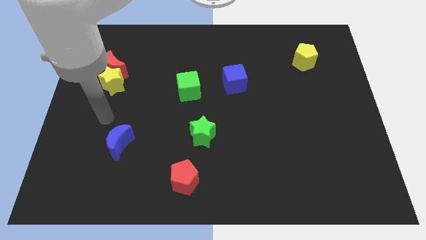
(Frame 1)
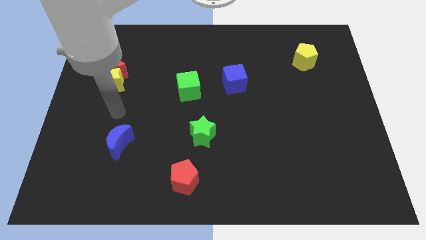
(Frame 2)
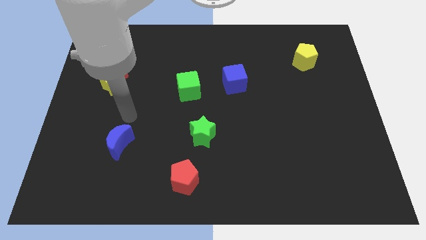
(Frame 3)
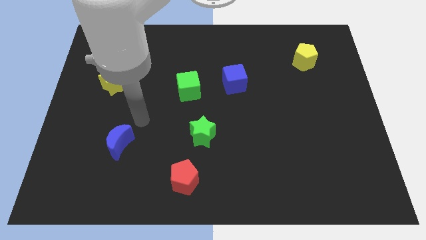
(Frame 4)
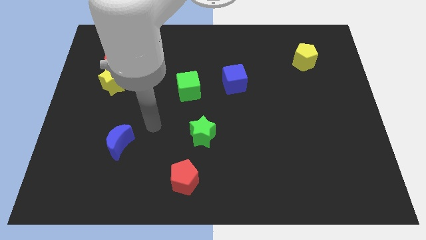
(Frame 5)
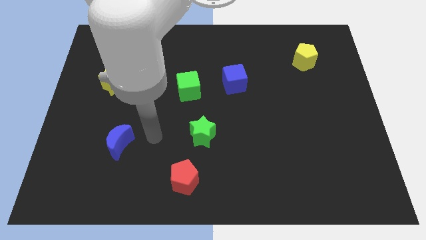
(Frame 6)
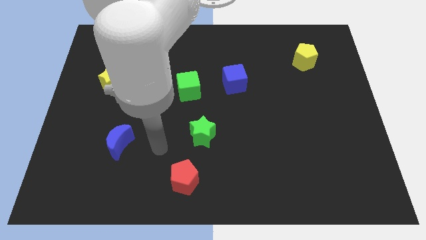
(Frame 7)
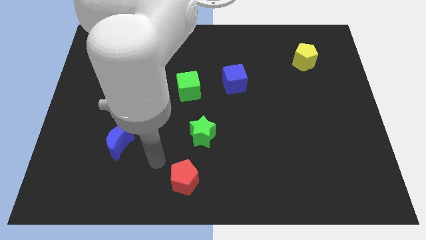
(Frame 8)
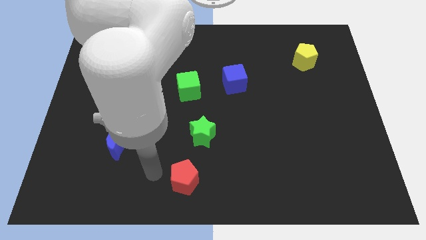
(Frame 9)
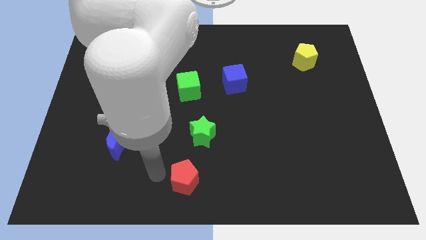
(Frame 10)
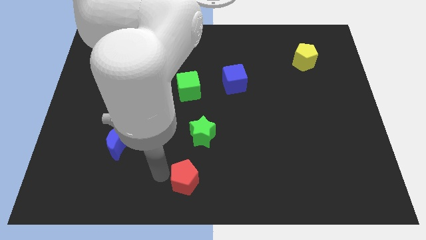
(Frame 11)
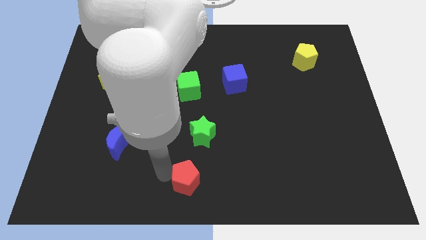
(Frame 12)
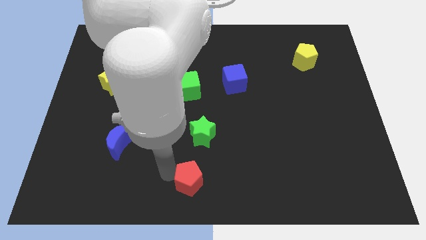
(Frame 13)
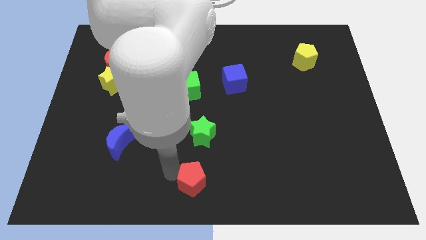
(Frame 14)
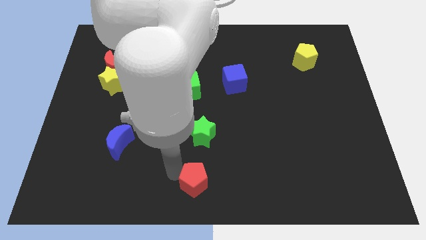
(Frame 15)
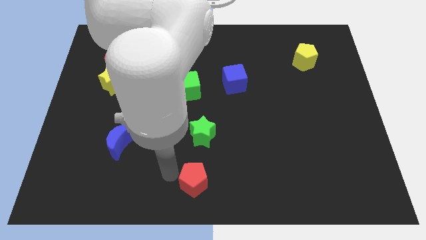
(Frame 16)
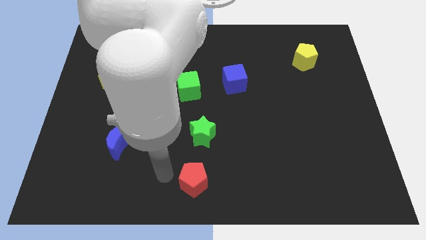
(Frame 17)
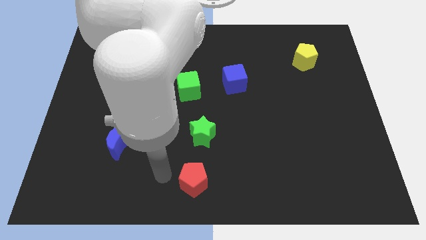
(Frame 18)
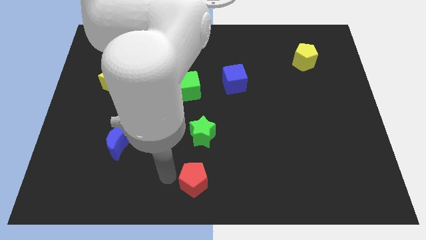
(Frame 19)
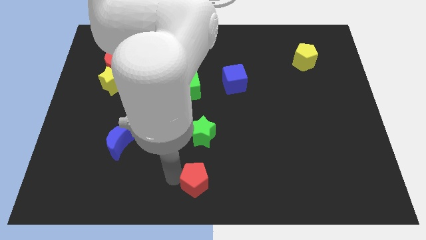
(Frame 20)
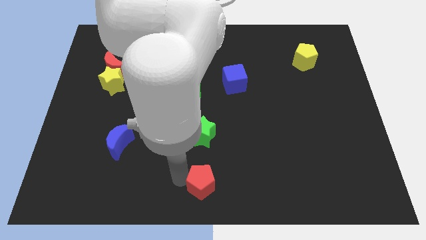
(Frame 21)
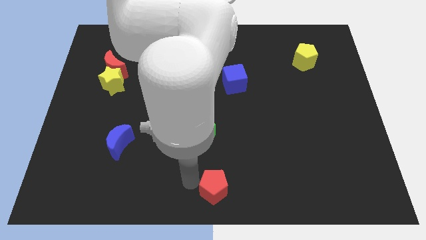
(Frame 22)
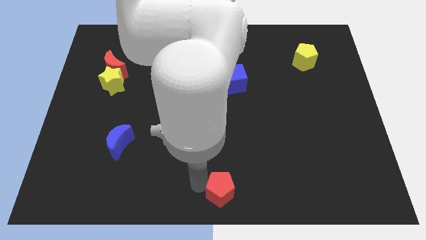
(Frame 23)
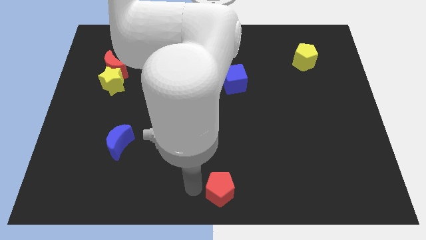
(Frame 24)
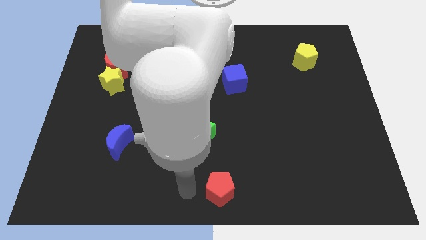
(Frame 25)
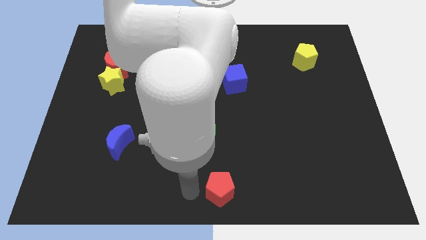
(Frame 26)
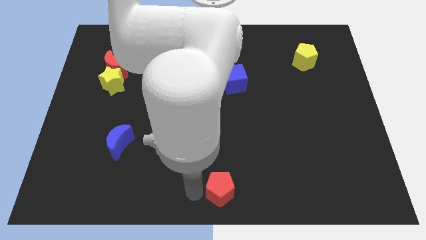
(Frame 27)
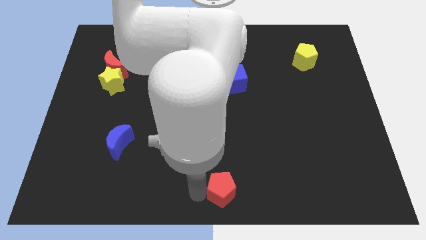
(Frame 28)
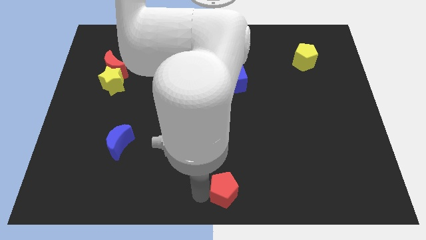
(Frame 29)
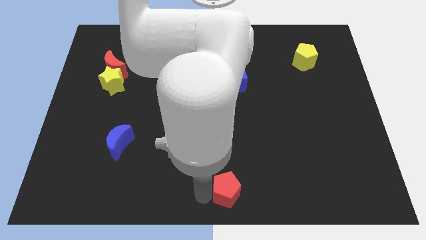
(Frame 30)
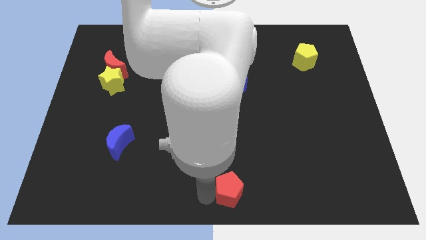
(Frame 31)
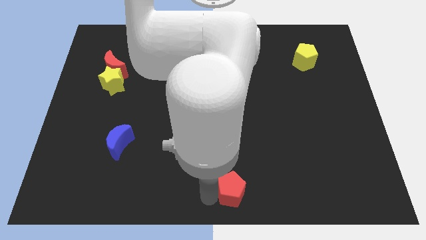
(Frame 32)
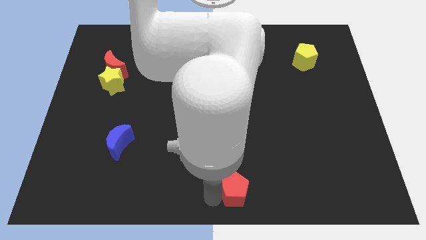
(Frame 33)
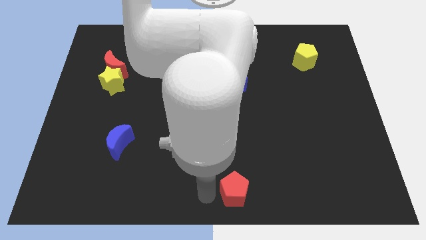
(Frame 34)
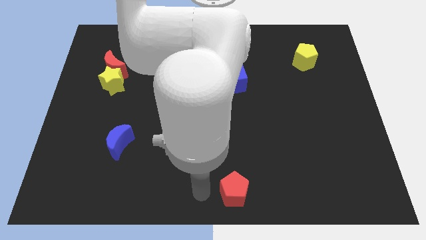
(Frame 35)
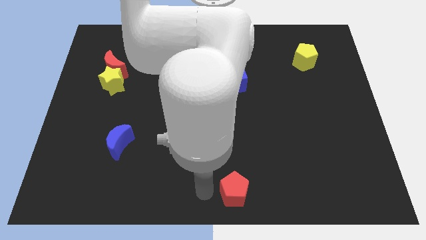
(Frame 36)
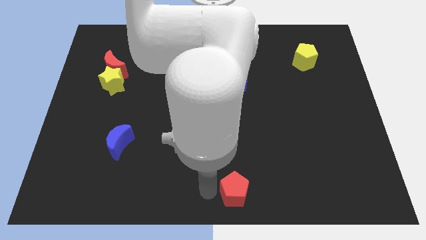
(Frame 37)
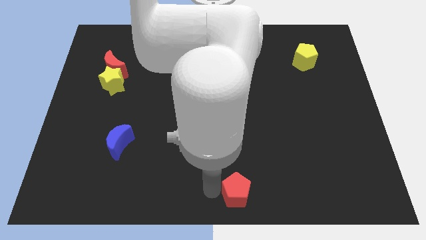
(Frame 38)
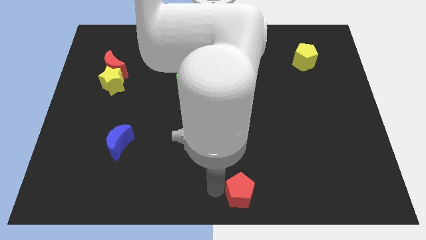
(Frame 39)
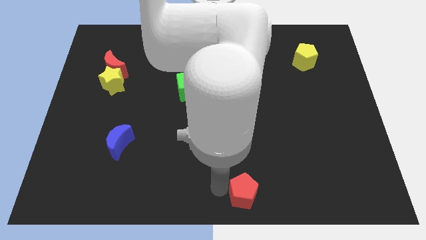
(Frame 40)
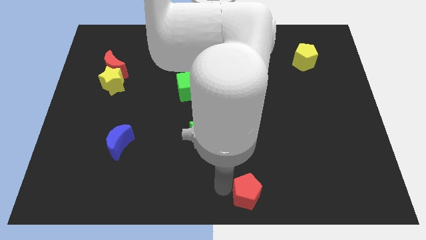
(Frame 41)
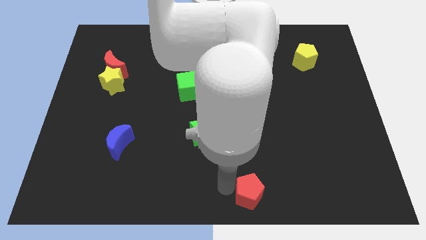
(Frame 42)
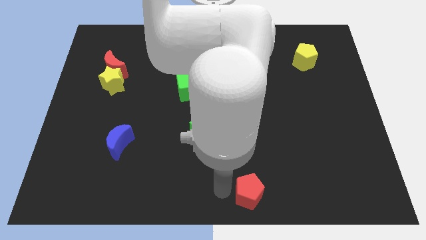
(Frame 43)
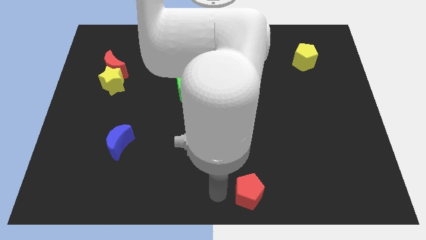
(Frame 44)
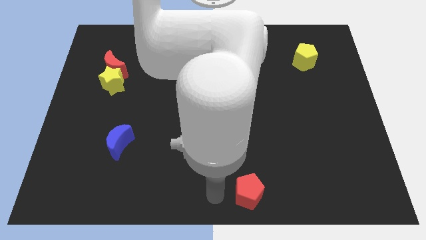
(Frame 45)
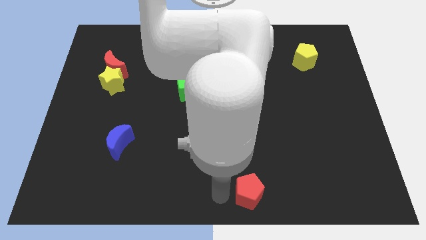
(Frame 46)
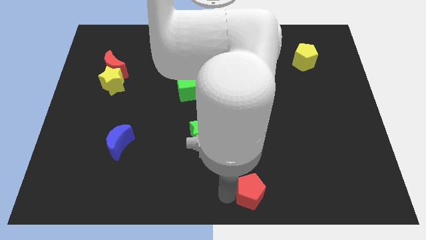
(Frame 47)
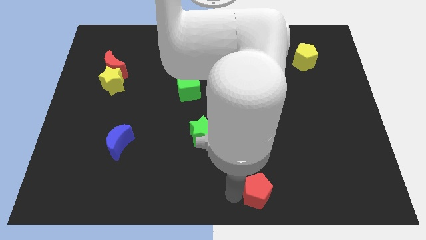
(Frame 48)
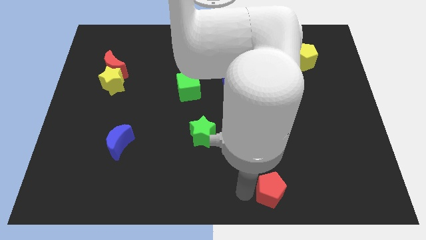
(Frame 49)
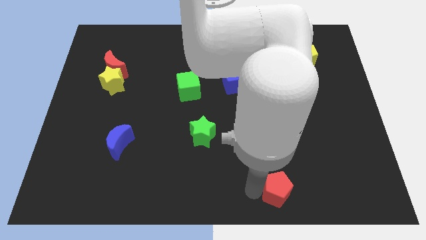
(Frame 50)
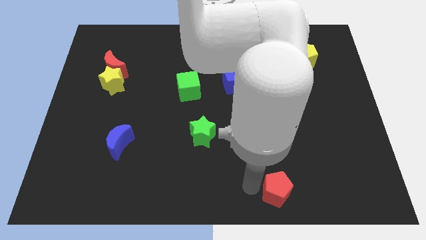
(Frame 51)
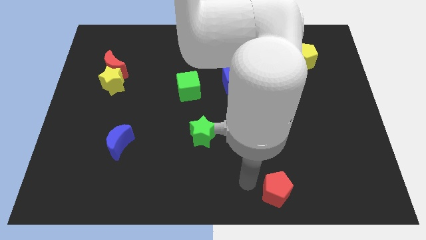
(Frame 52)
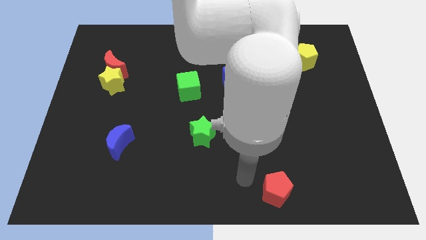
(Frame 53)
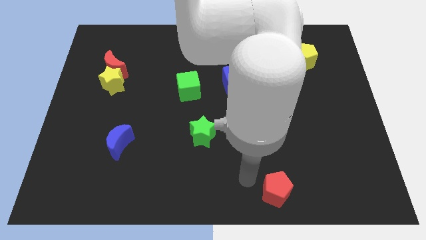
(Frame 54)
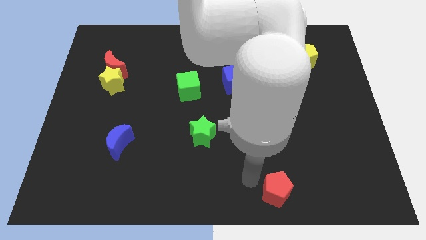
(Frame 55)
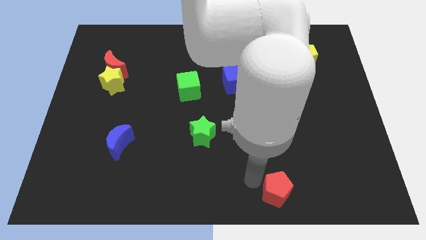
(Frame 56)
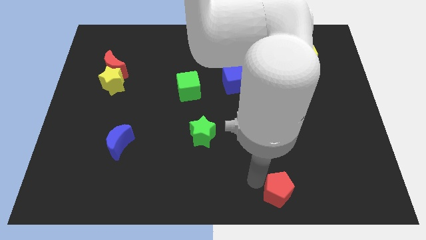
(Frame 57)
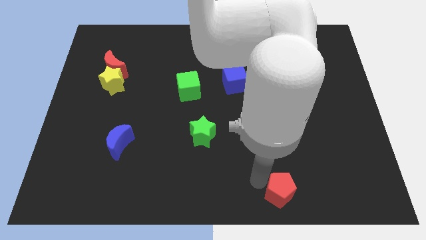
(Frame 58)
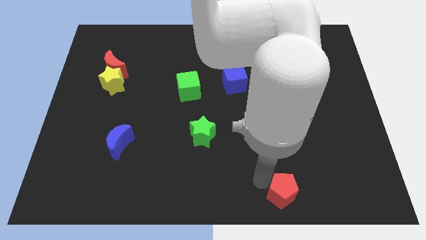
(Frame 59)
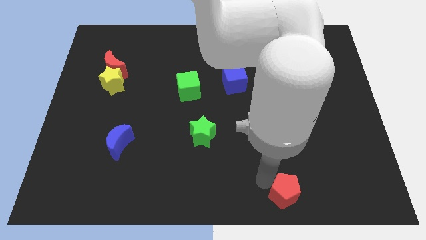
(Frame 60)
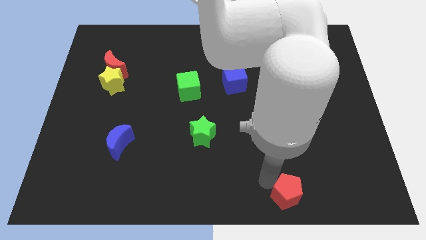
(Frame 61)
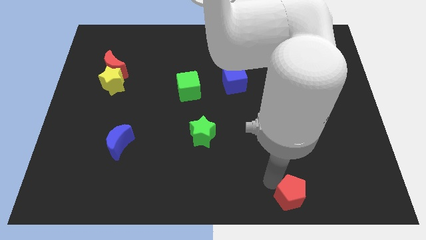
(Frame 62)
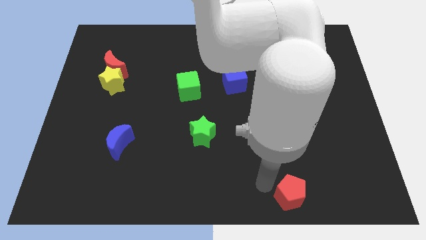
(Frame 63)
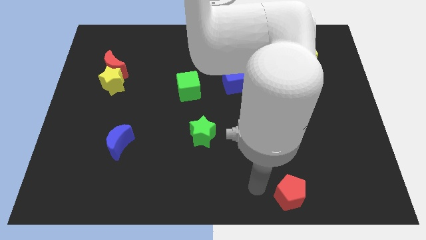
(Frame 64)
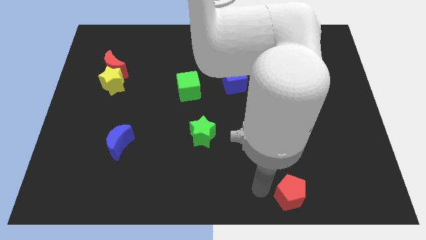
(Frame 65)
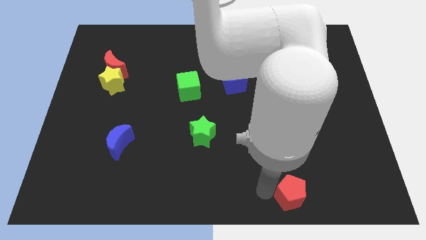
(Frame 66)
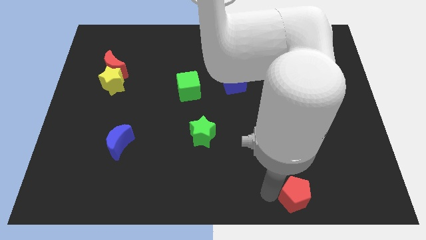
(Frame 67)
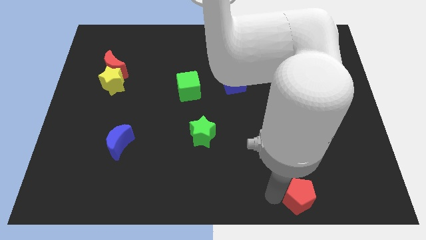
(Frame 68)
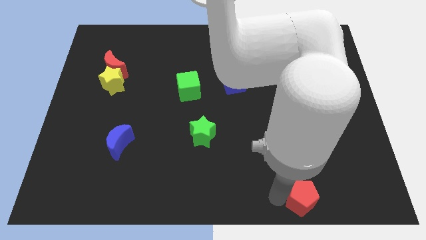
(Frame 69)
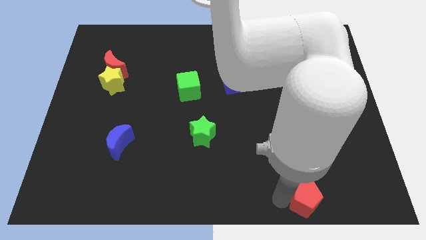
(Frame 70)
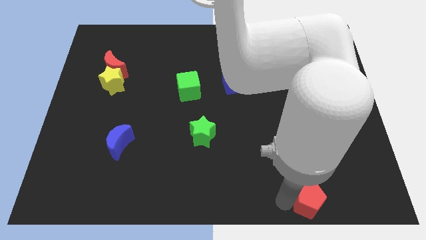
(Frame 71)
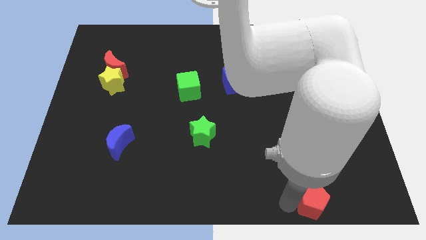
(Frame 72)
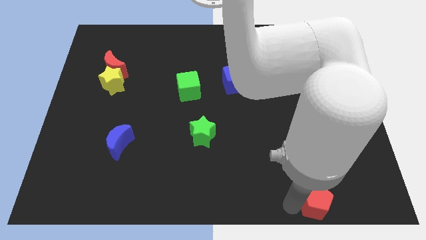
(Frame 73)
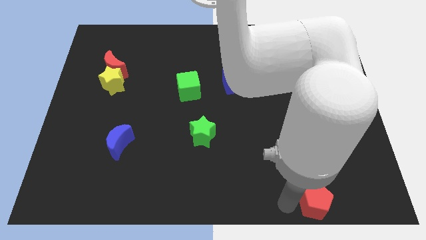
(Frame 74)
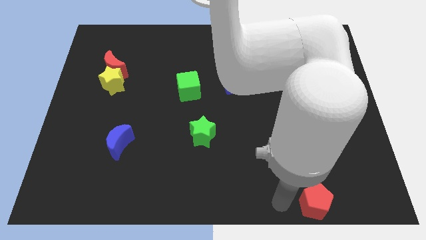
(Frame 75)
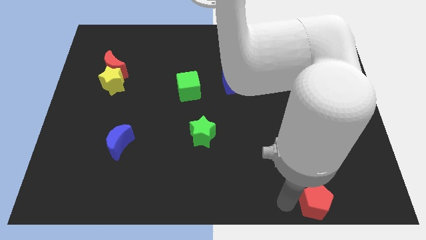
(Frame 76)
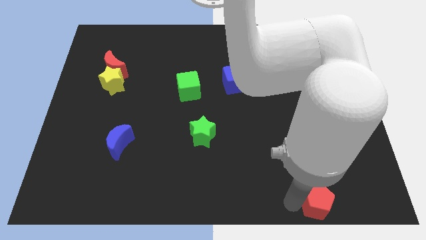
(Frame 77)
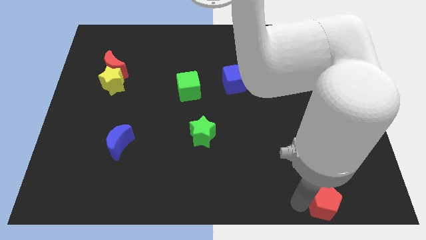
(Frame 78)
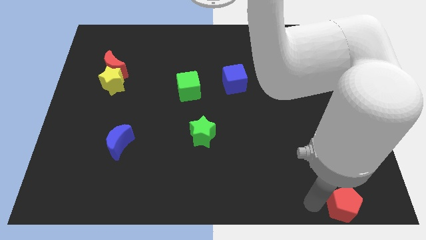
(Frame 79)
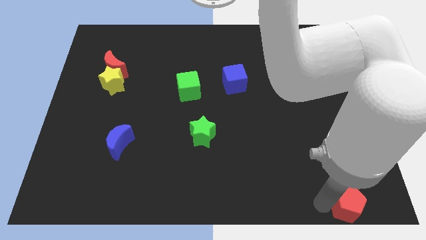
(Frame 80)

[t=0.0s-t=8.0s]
move the red pentagon to the bottom right corner
